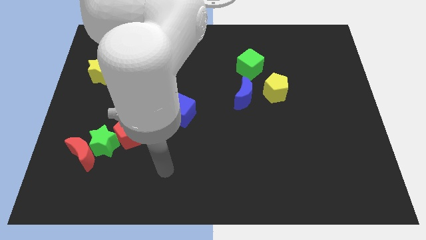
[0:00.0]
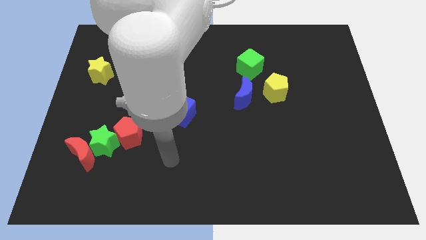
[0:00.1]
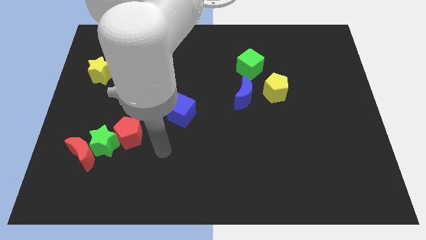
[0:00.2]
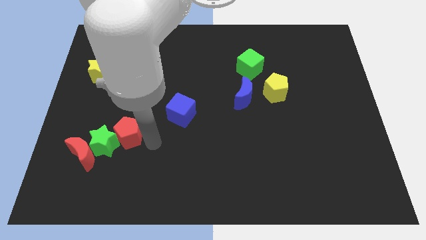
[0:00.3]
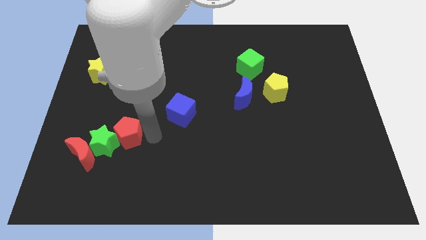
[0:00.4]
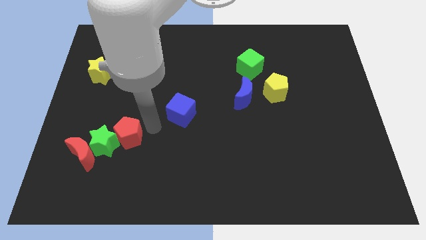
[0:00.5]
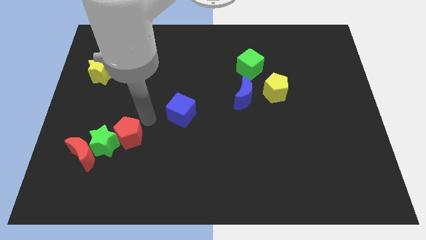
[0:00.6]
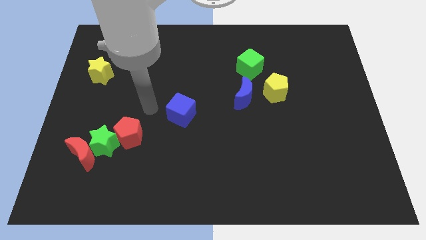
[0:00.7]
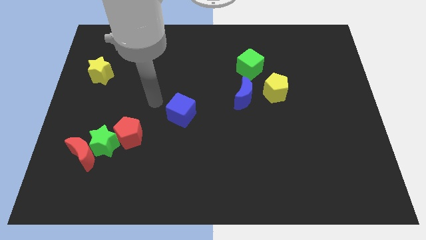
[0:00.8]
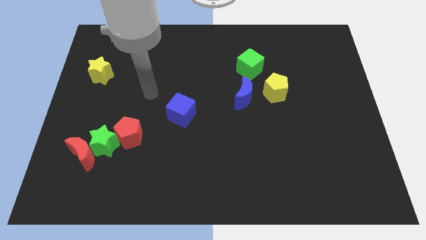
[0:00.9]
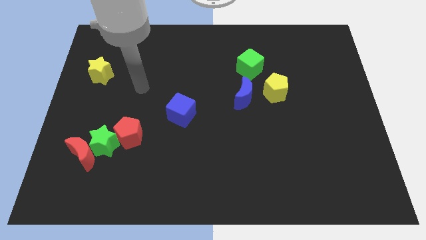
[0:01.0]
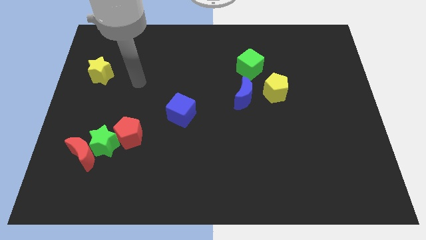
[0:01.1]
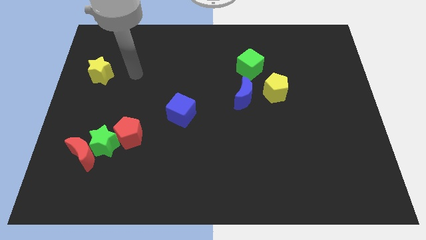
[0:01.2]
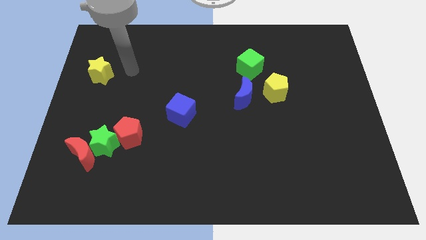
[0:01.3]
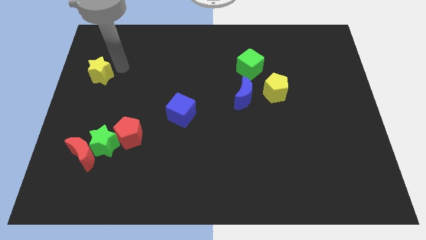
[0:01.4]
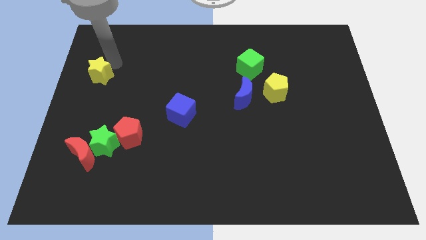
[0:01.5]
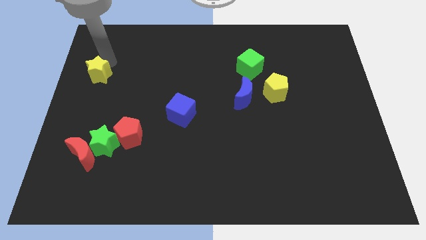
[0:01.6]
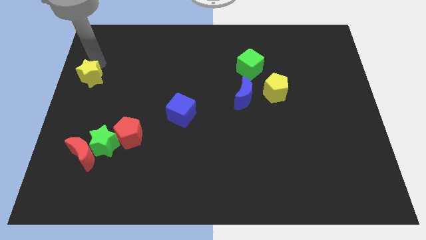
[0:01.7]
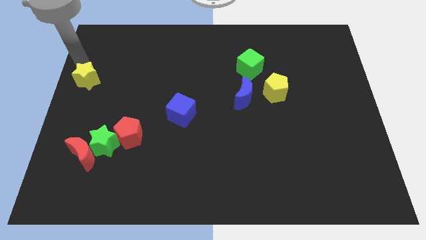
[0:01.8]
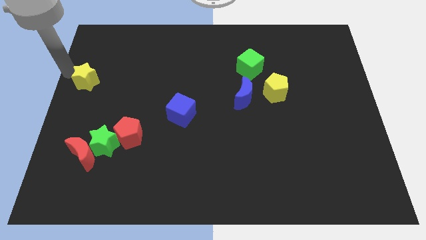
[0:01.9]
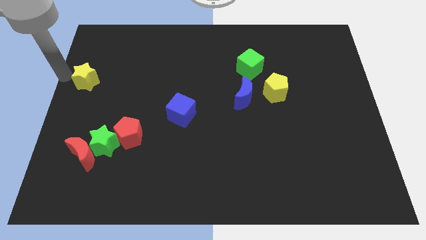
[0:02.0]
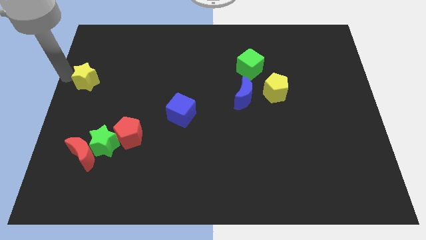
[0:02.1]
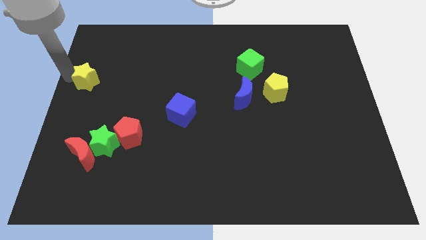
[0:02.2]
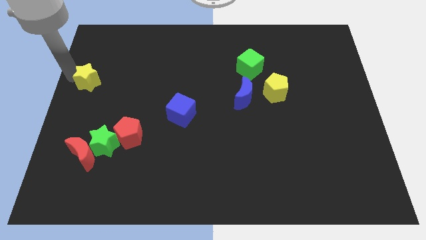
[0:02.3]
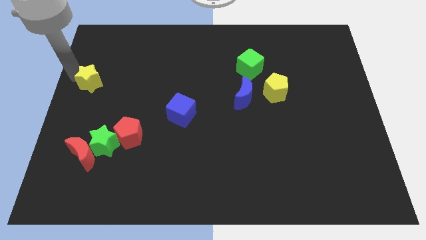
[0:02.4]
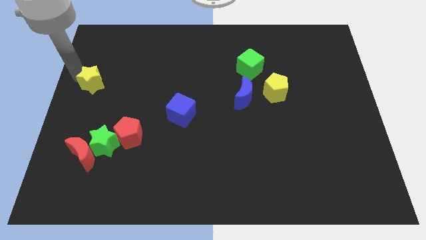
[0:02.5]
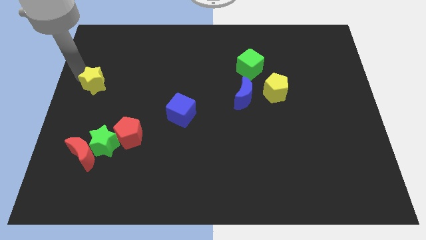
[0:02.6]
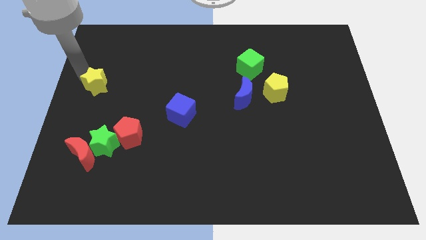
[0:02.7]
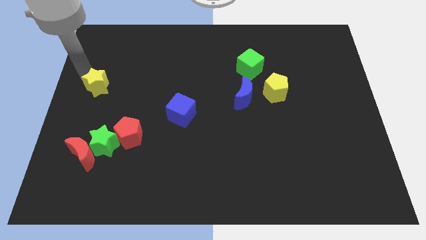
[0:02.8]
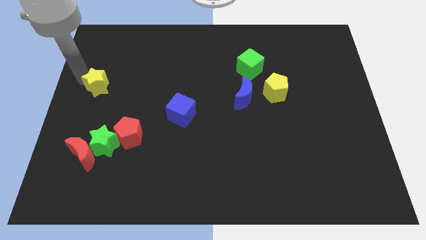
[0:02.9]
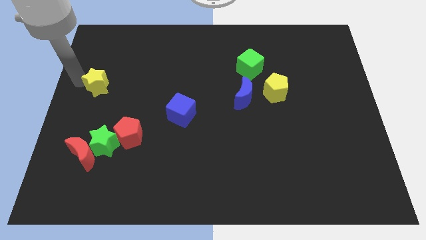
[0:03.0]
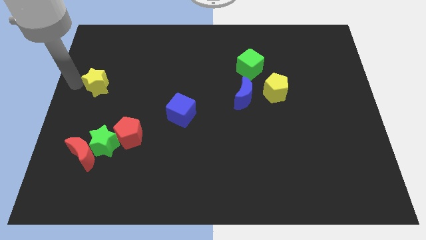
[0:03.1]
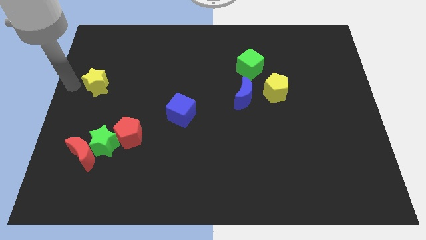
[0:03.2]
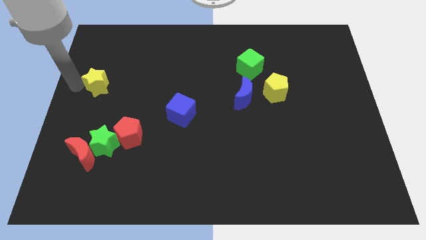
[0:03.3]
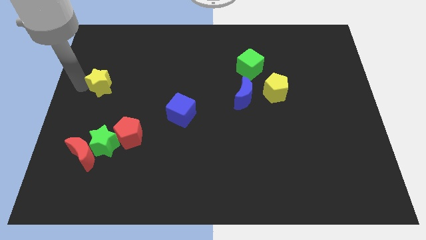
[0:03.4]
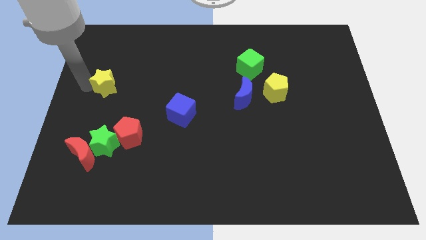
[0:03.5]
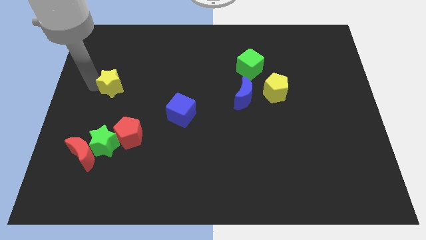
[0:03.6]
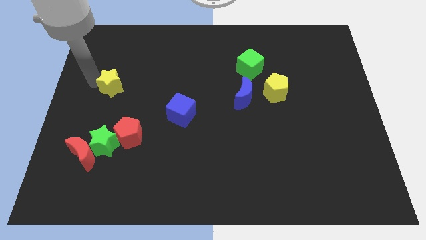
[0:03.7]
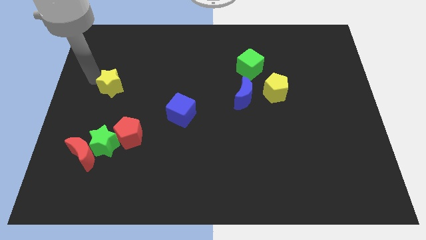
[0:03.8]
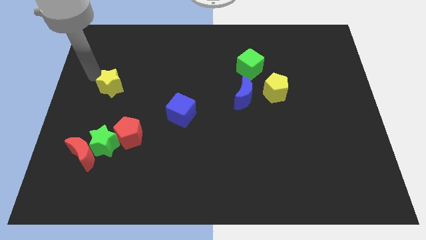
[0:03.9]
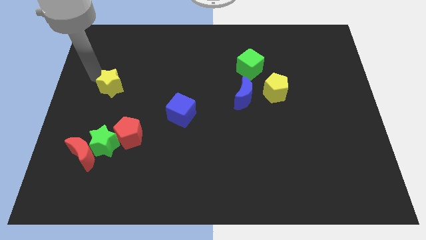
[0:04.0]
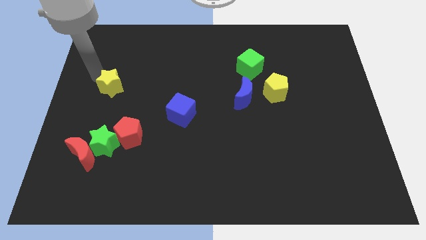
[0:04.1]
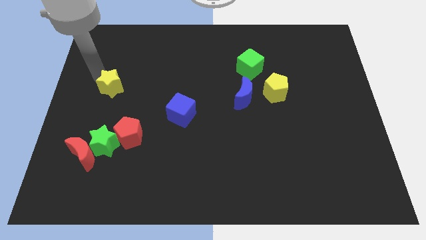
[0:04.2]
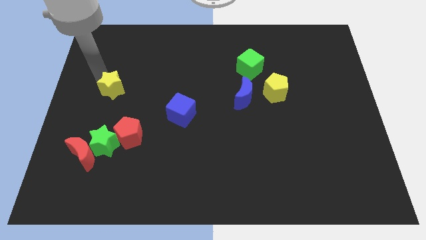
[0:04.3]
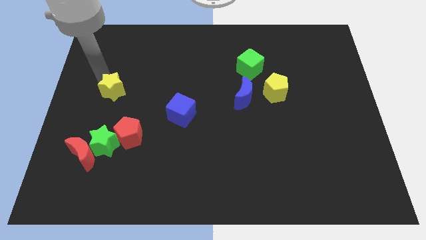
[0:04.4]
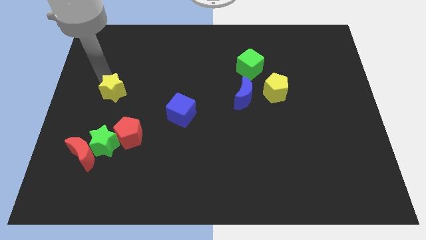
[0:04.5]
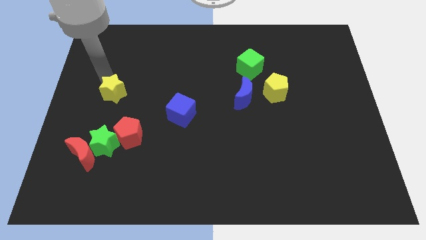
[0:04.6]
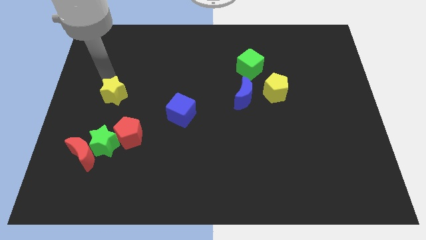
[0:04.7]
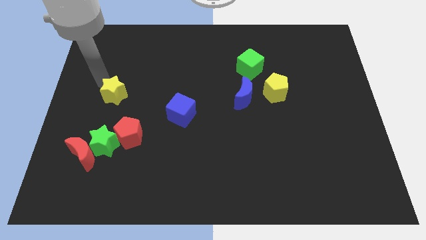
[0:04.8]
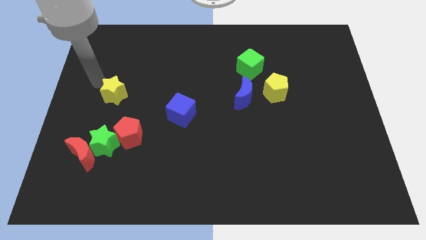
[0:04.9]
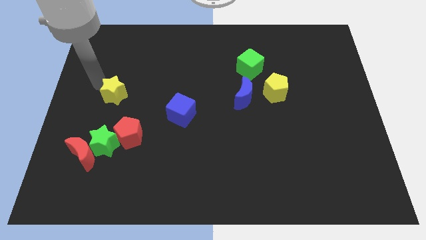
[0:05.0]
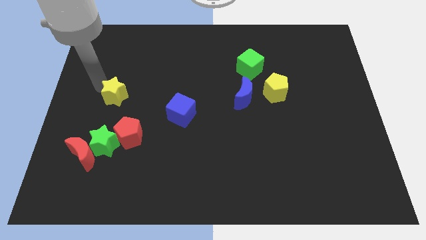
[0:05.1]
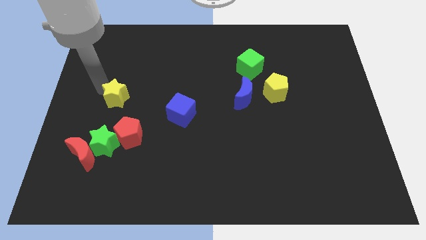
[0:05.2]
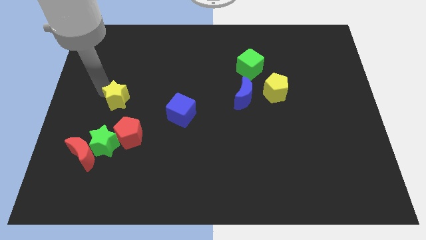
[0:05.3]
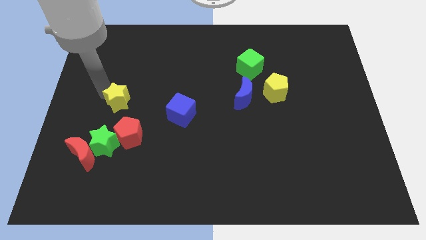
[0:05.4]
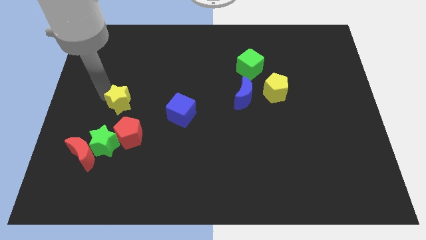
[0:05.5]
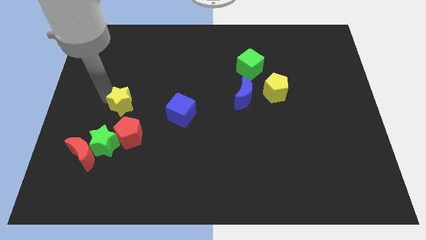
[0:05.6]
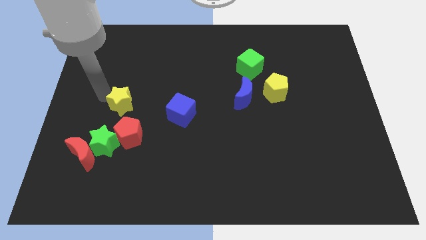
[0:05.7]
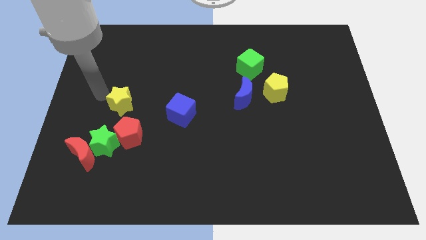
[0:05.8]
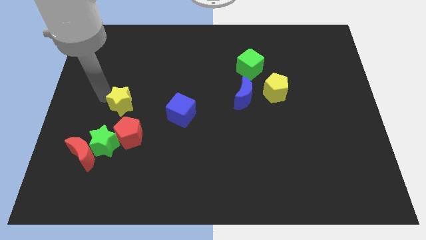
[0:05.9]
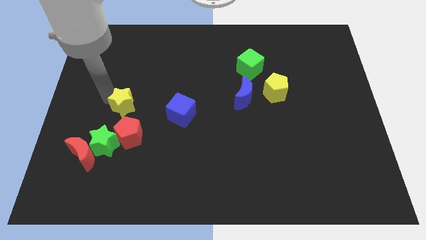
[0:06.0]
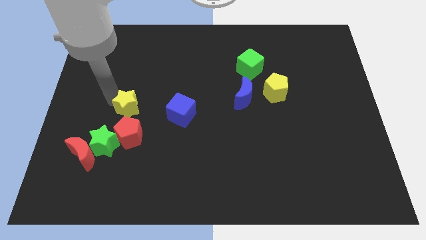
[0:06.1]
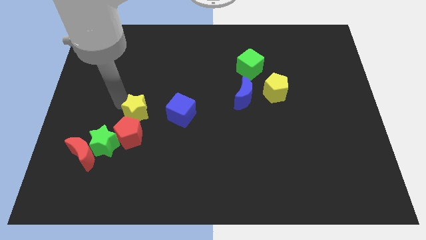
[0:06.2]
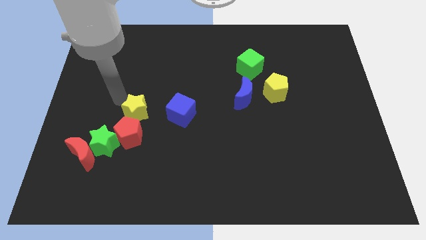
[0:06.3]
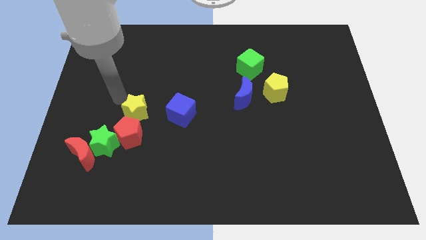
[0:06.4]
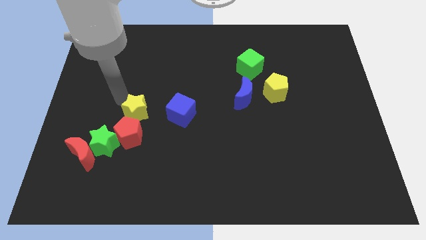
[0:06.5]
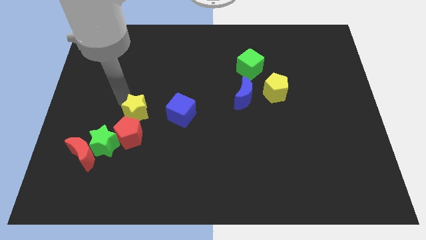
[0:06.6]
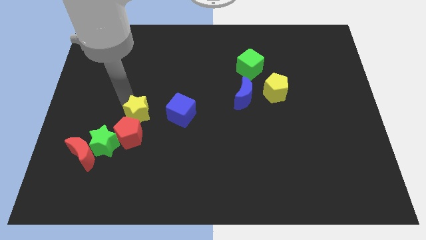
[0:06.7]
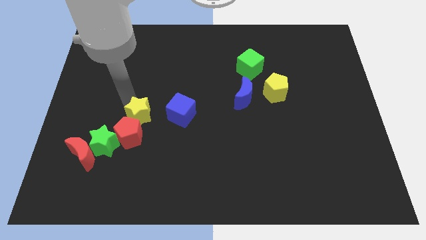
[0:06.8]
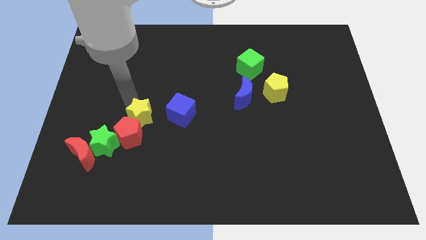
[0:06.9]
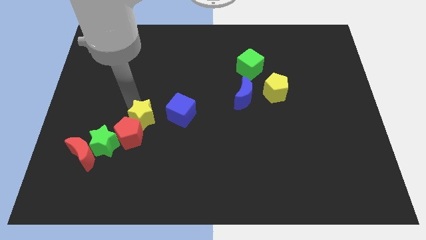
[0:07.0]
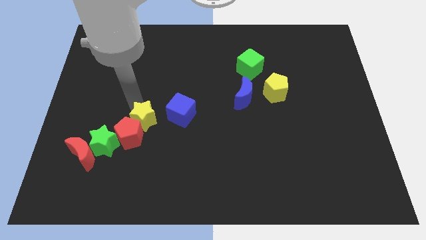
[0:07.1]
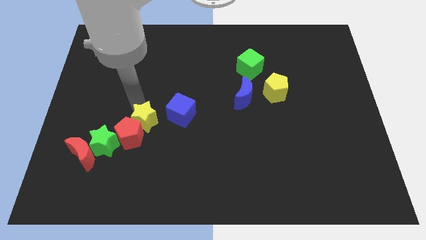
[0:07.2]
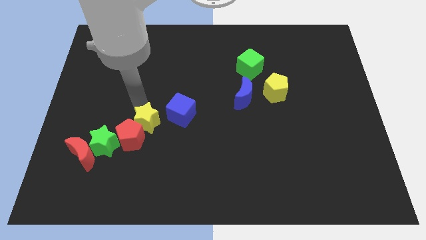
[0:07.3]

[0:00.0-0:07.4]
move the yellow star diagonally downwards and right

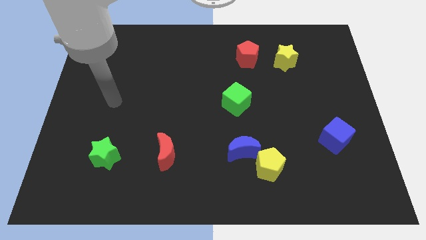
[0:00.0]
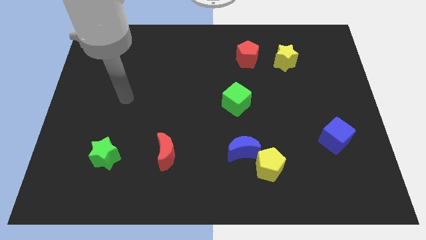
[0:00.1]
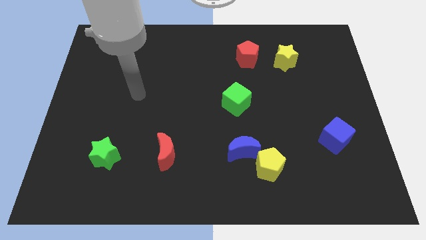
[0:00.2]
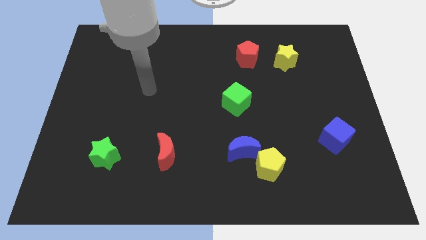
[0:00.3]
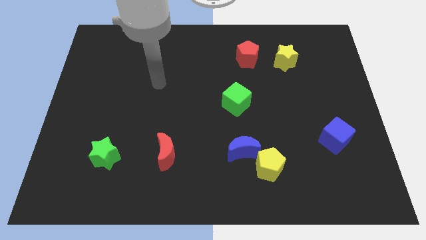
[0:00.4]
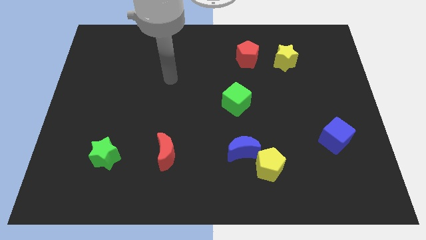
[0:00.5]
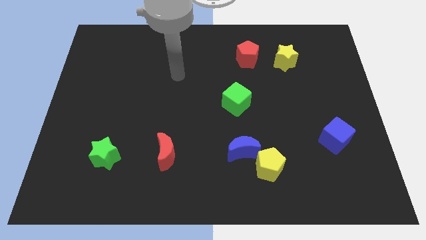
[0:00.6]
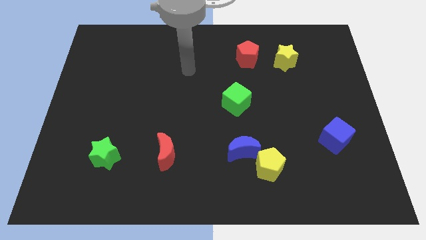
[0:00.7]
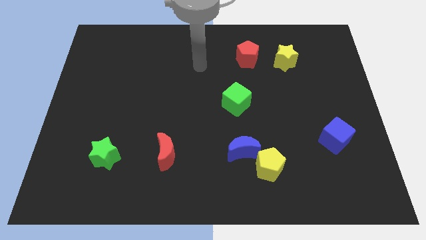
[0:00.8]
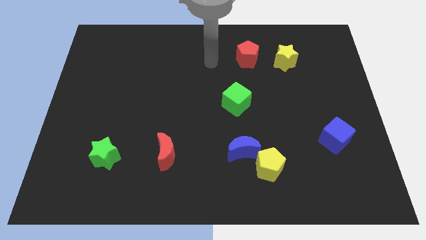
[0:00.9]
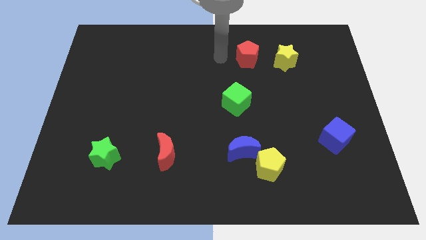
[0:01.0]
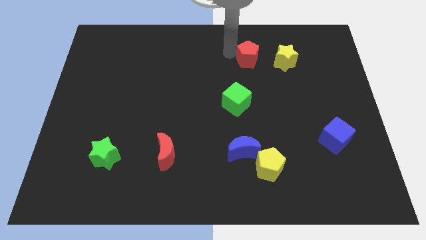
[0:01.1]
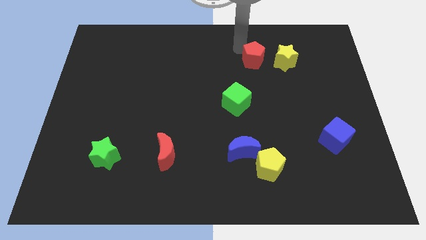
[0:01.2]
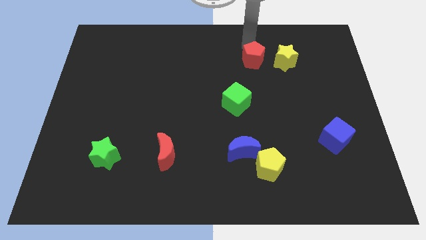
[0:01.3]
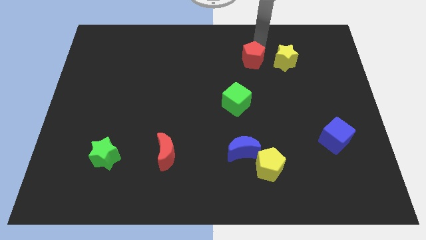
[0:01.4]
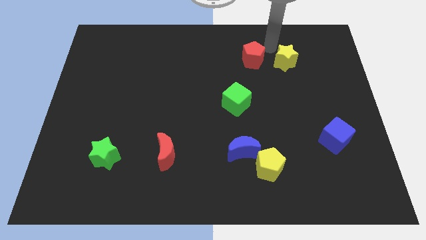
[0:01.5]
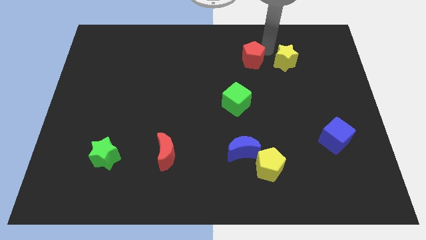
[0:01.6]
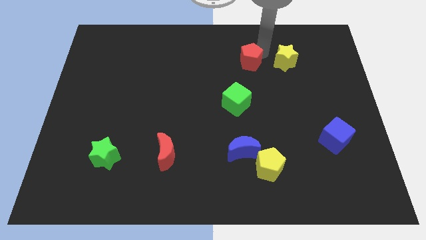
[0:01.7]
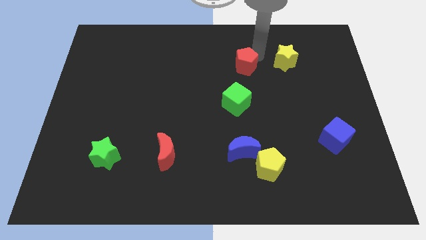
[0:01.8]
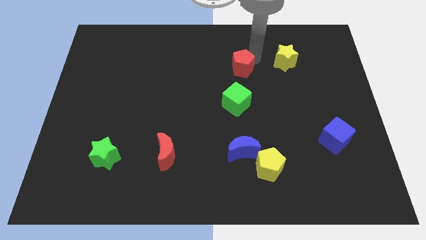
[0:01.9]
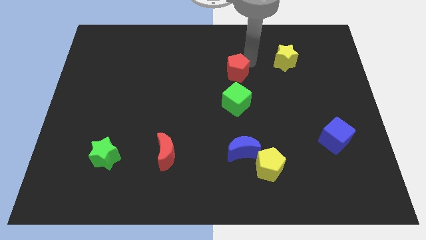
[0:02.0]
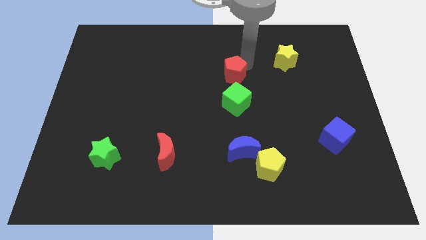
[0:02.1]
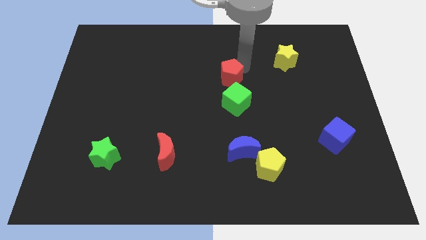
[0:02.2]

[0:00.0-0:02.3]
slide the red pentagon down and then left a little
